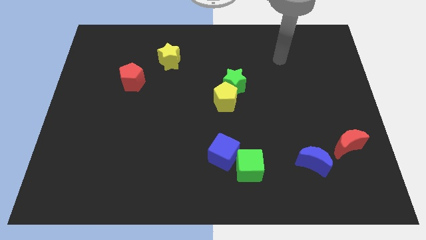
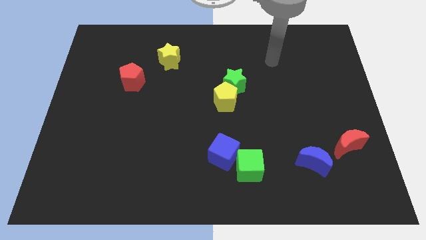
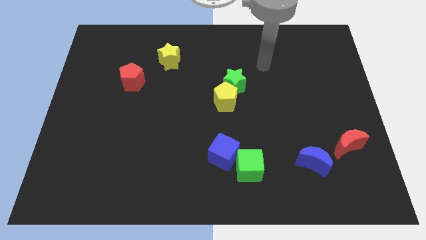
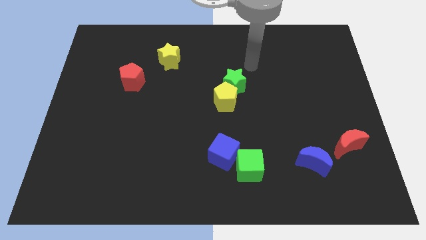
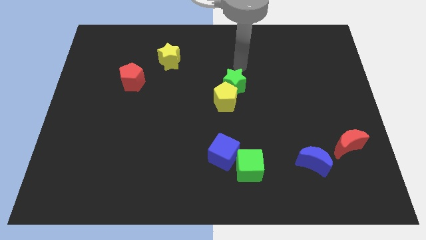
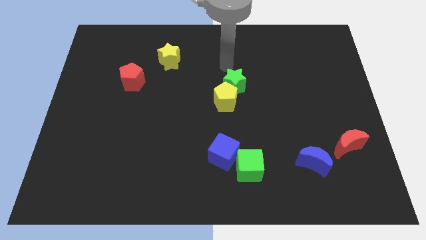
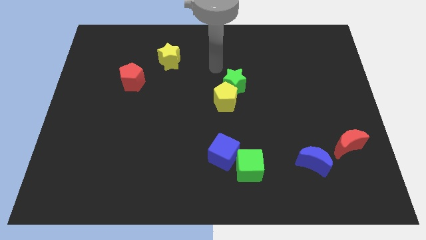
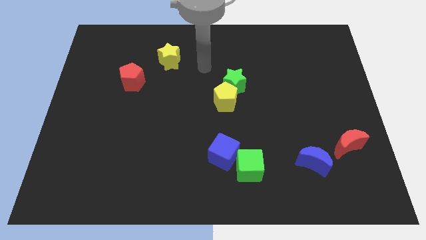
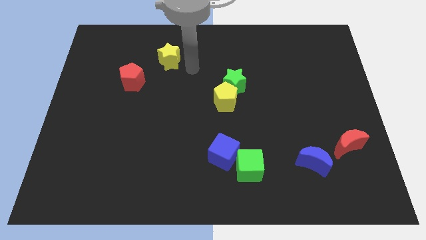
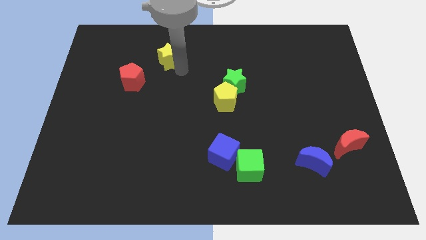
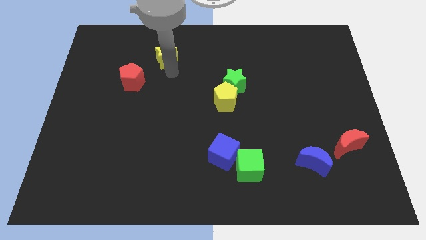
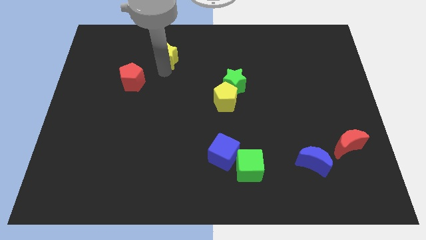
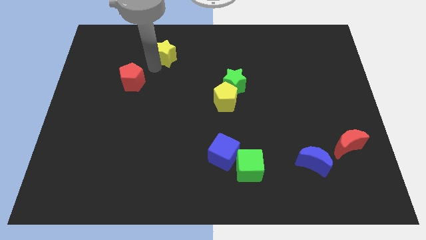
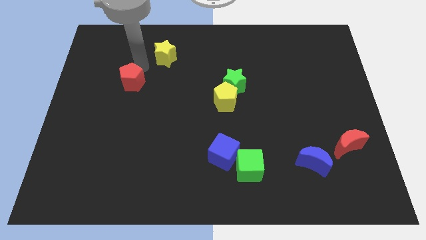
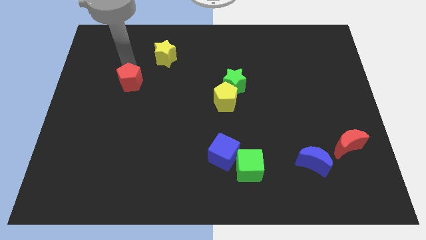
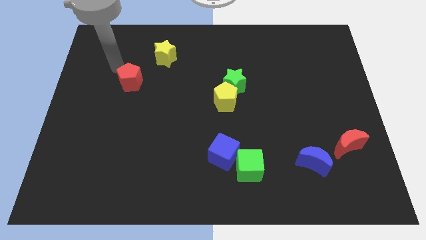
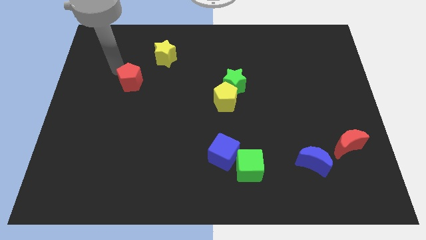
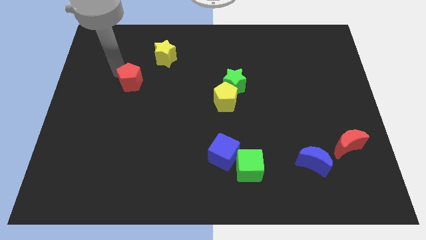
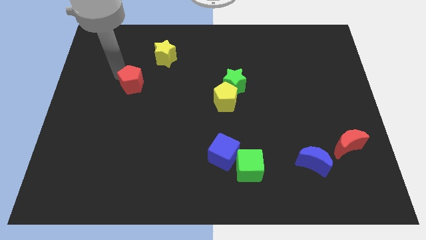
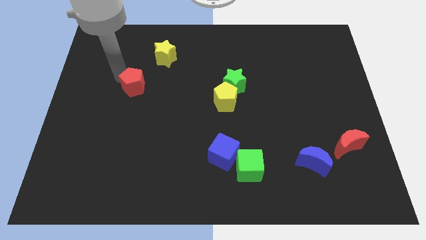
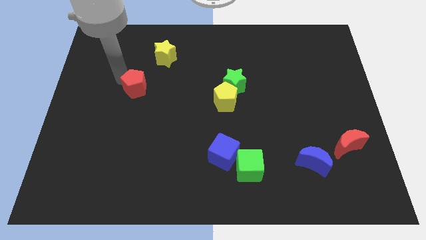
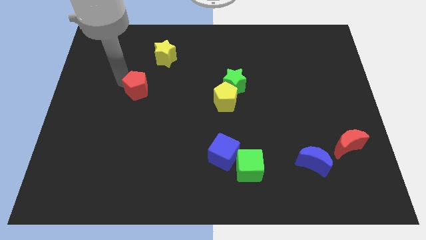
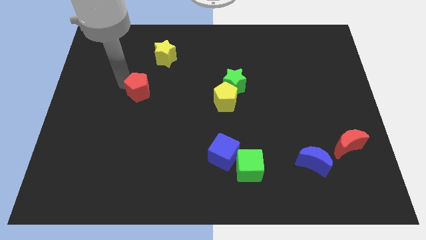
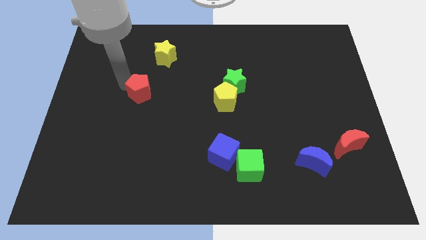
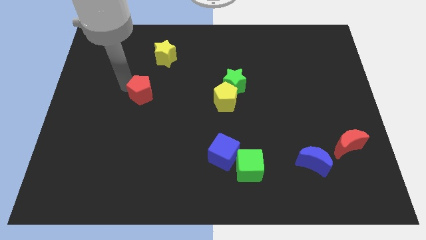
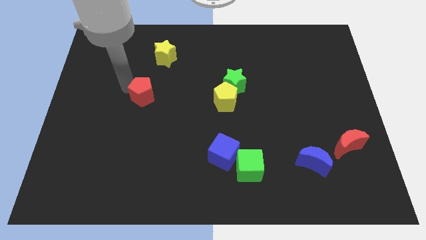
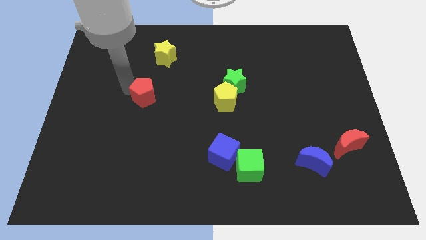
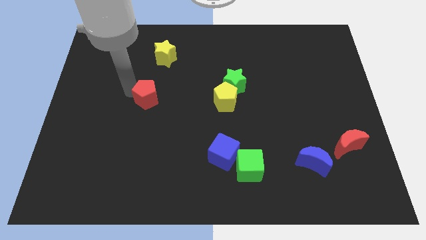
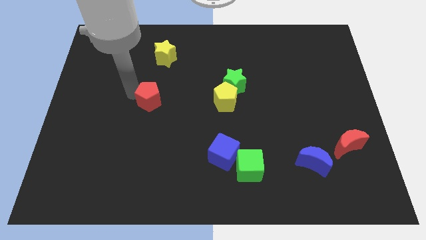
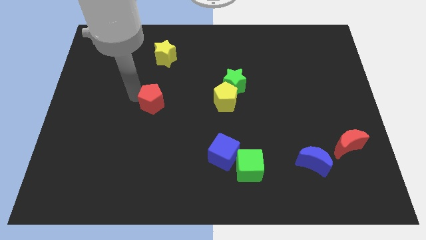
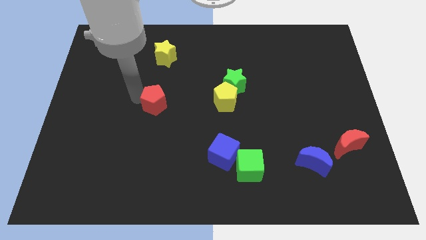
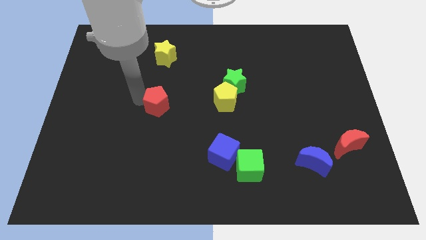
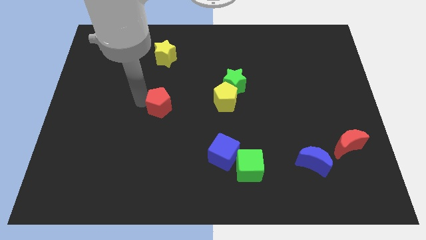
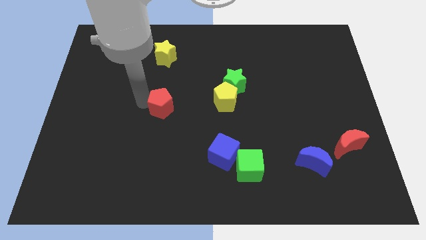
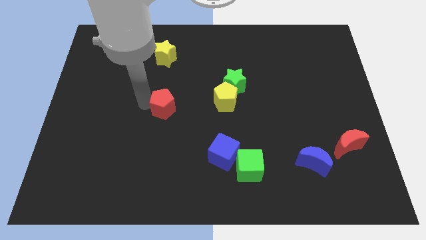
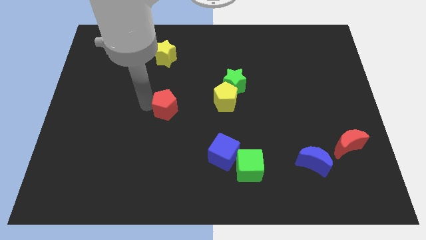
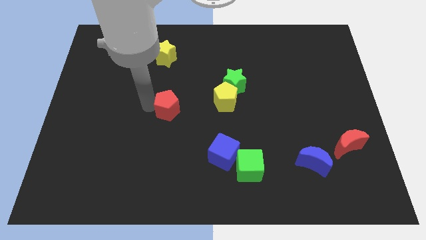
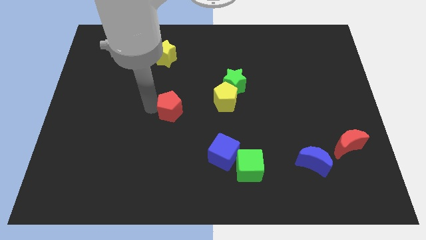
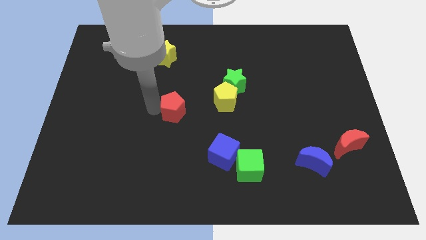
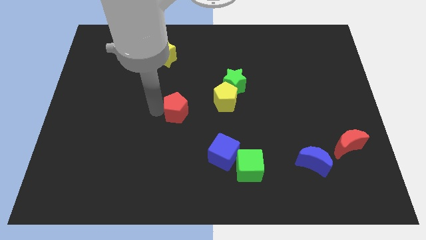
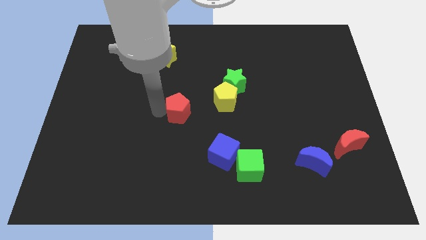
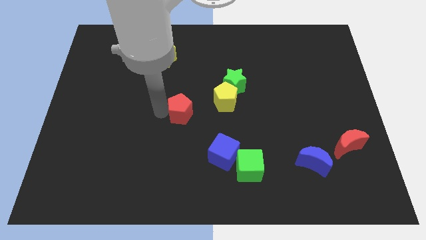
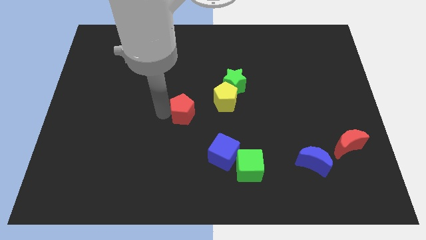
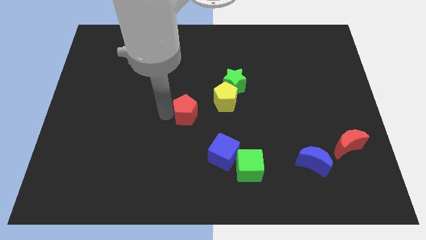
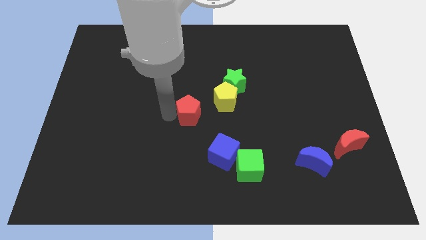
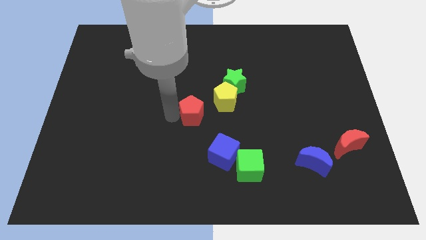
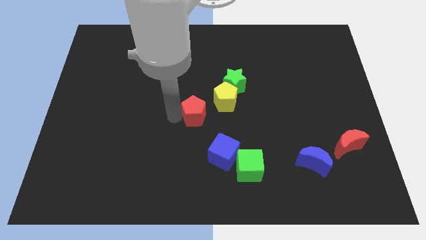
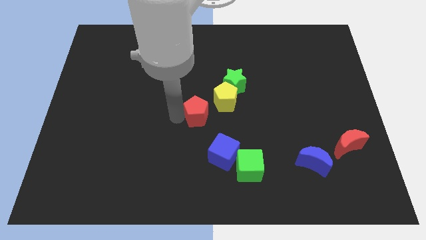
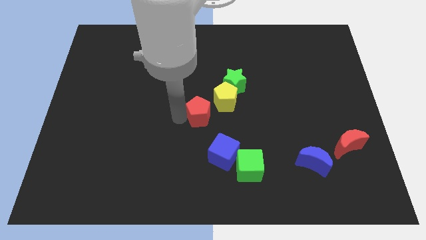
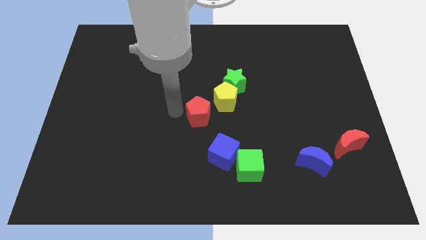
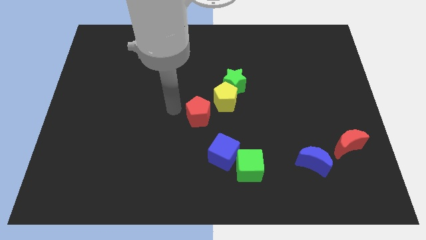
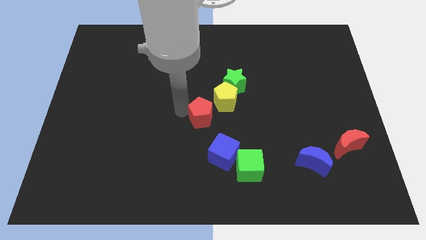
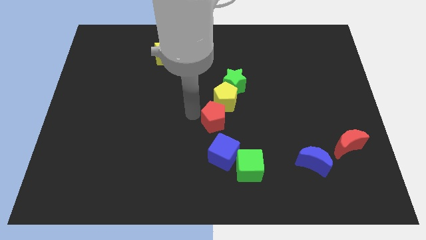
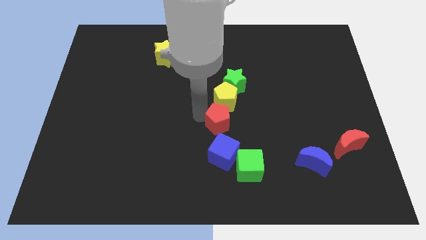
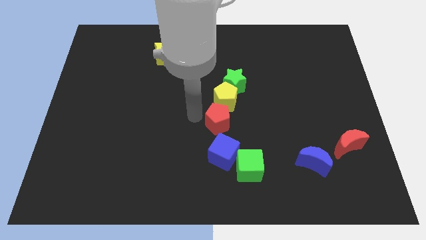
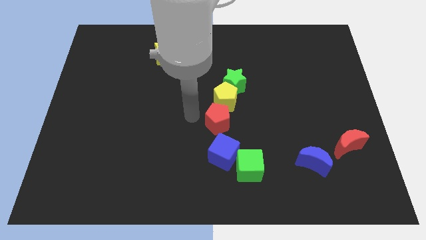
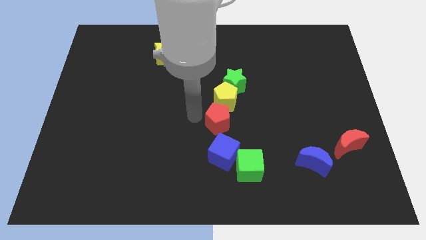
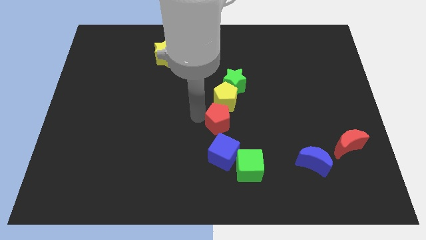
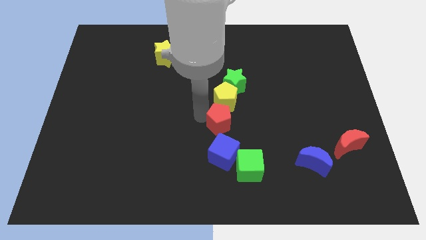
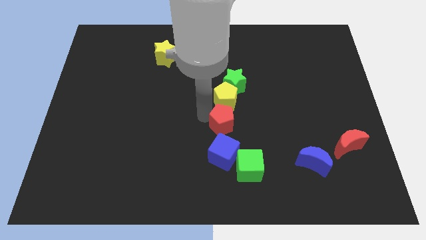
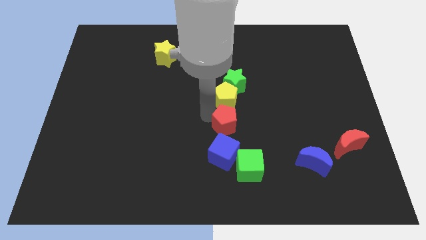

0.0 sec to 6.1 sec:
put the red pentagon above the green cube

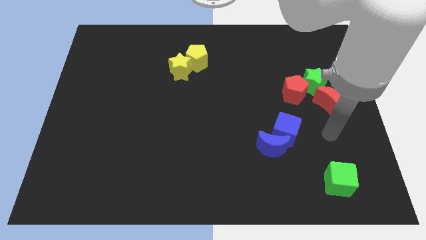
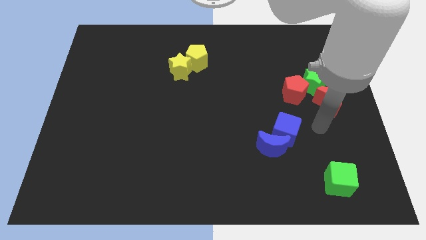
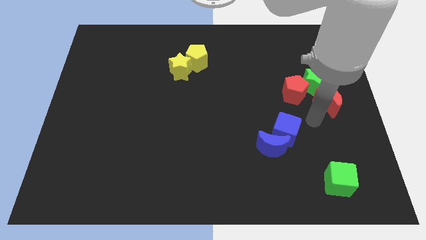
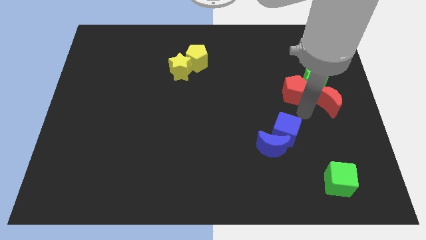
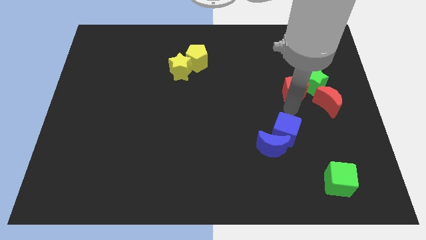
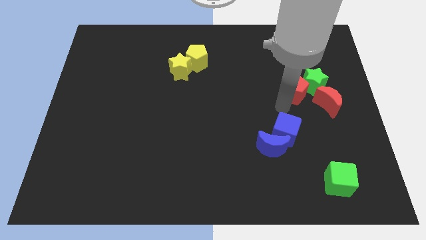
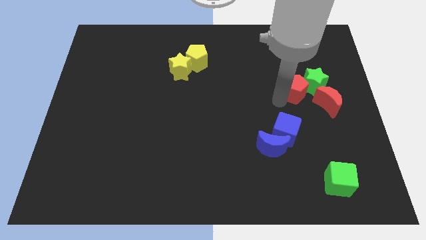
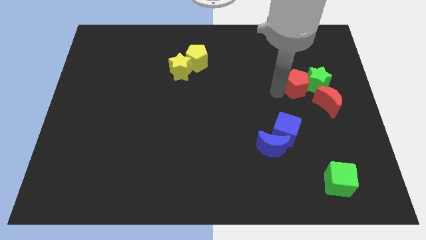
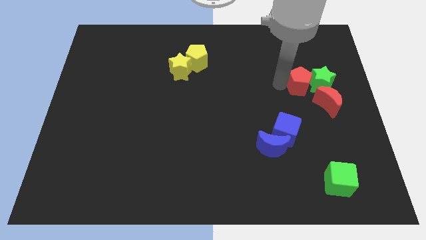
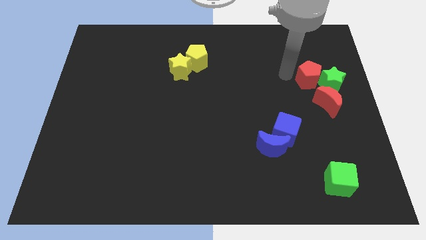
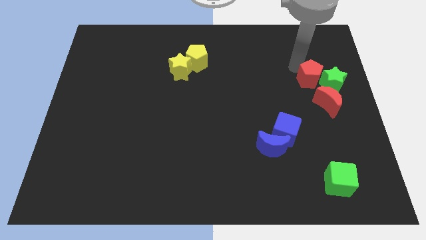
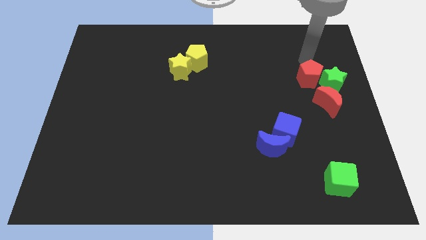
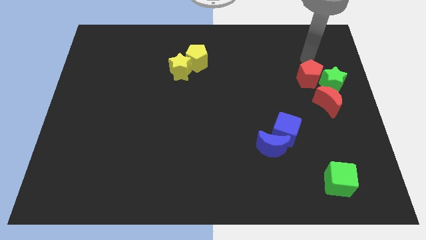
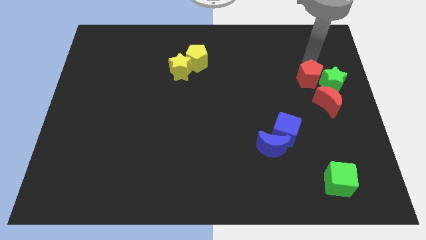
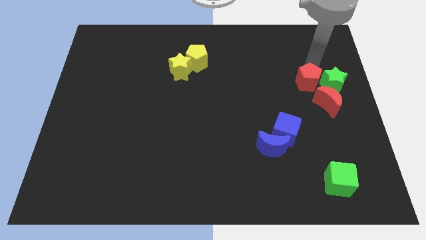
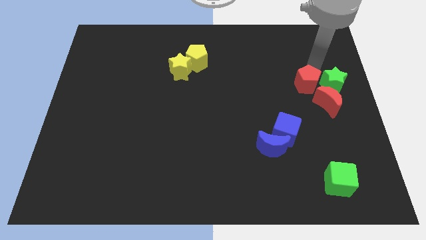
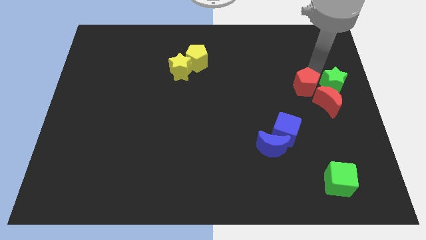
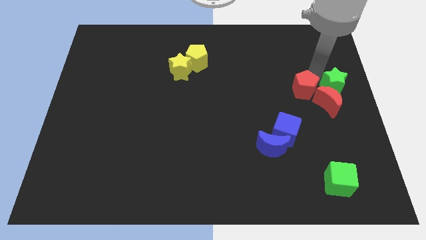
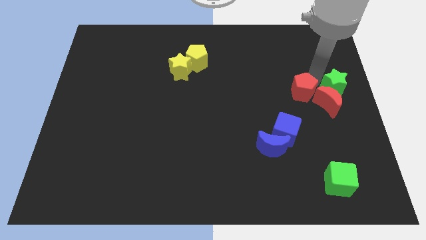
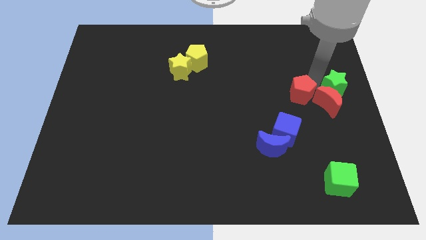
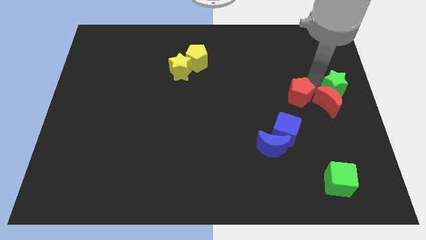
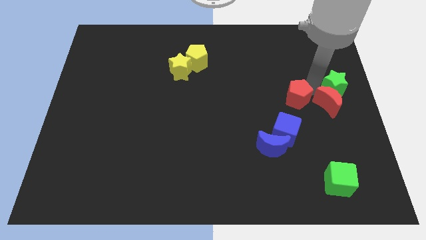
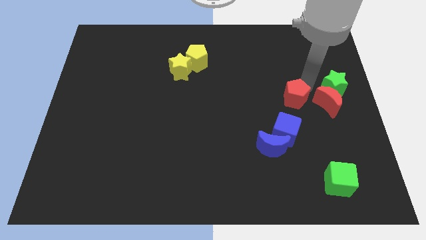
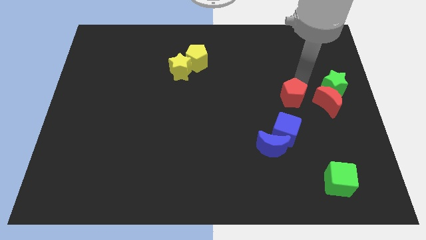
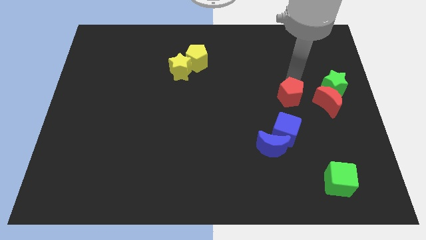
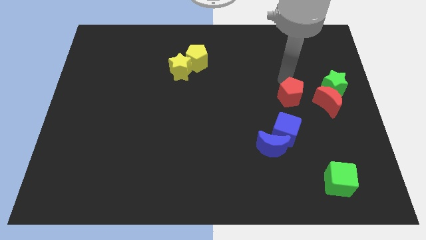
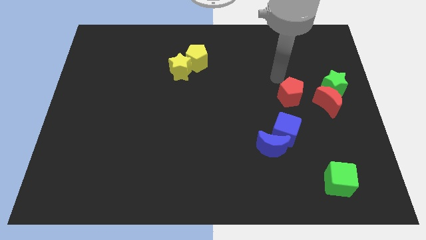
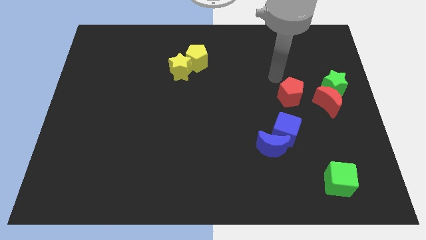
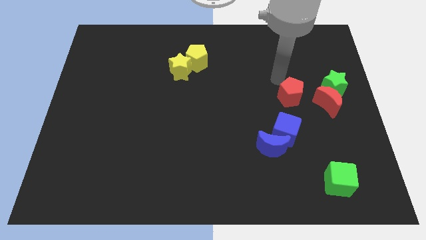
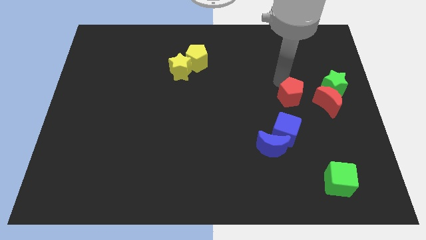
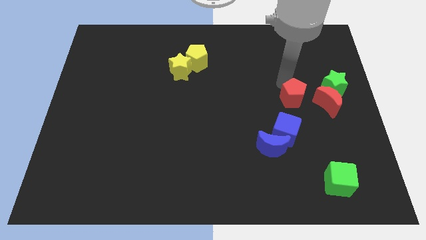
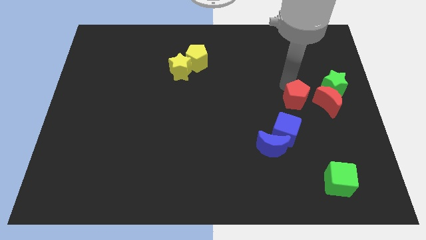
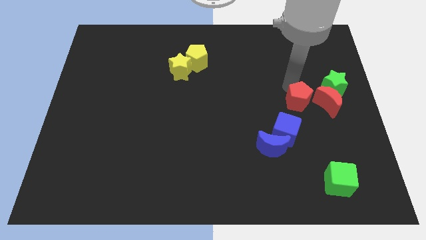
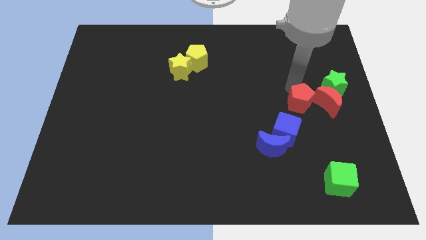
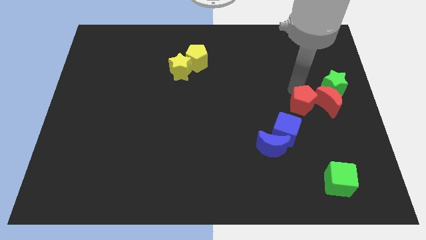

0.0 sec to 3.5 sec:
put the red pentagon to the bottom left of the red moon
